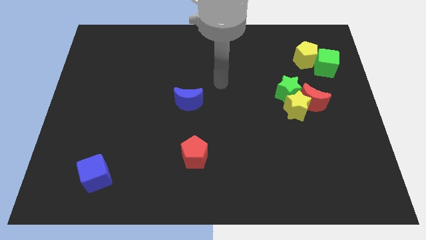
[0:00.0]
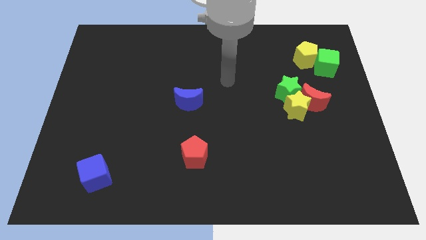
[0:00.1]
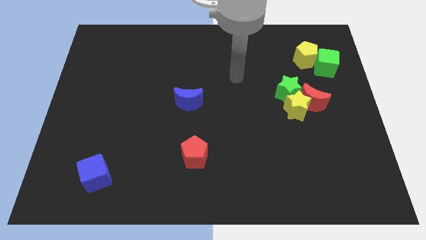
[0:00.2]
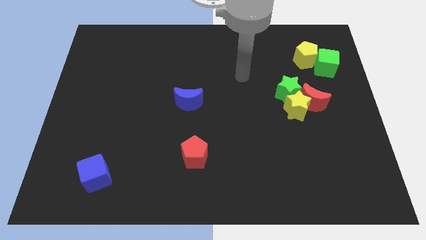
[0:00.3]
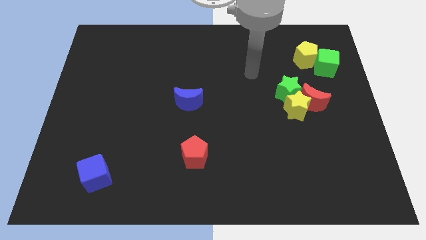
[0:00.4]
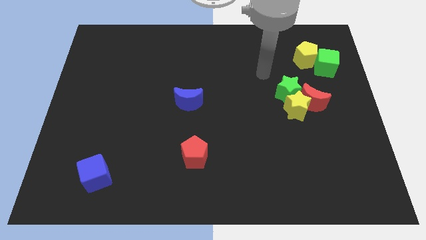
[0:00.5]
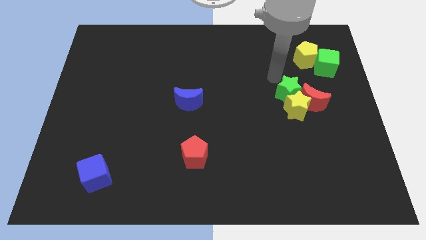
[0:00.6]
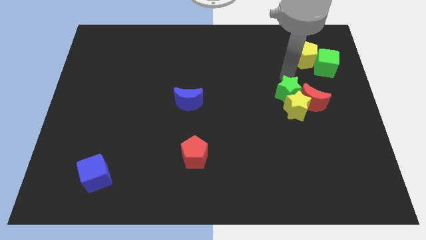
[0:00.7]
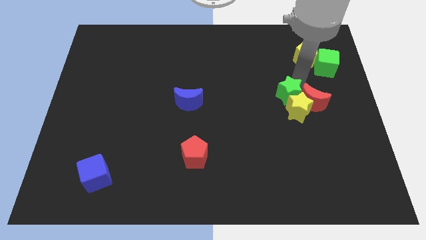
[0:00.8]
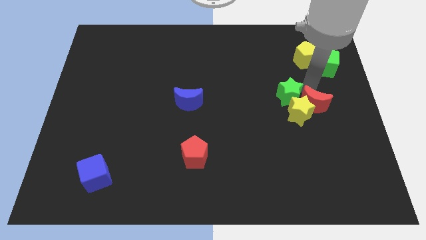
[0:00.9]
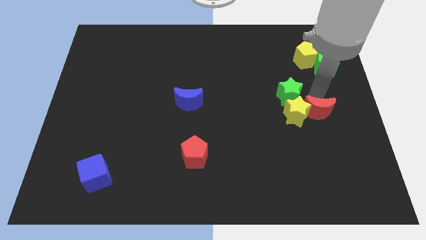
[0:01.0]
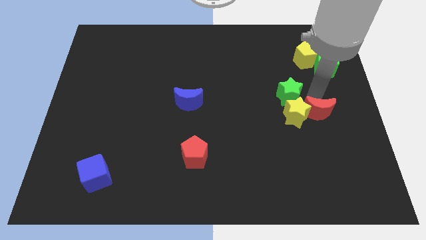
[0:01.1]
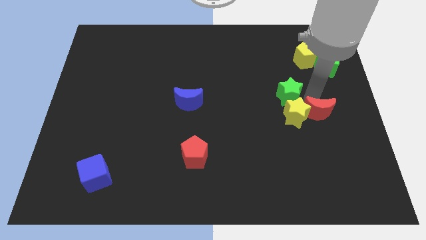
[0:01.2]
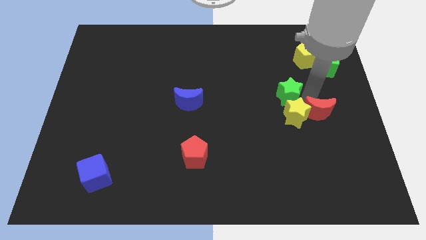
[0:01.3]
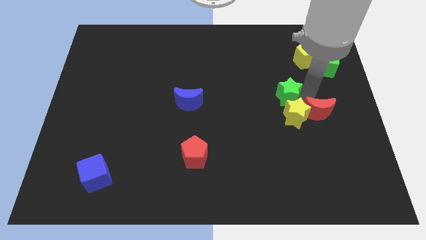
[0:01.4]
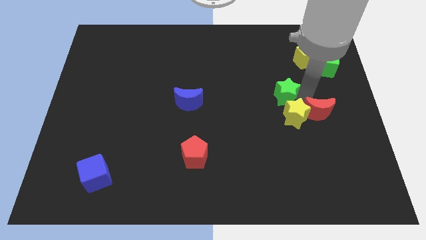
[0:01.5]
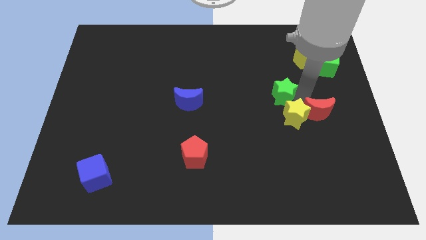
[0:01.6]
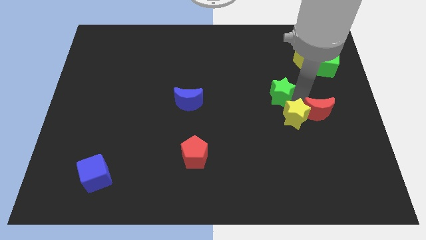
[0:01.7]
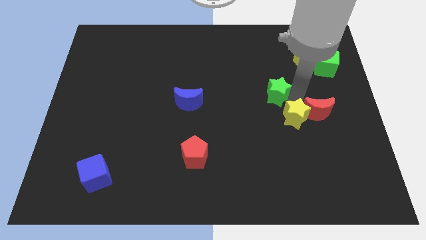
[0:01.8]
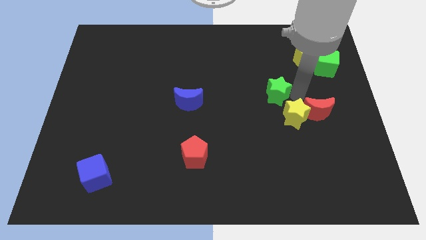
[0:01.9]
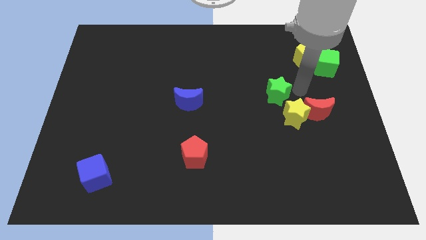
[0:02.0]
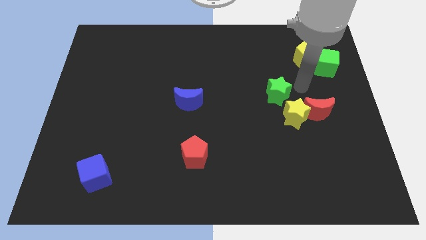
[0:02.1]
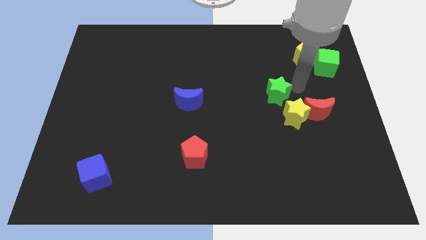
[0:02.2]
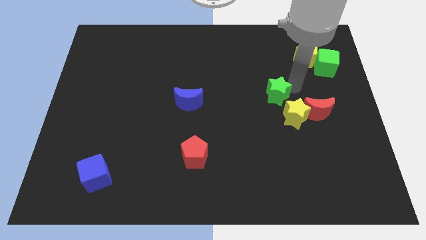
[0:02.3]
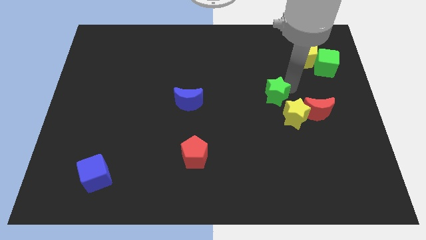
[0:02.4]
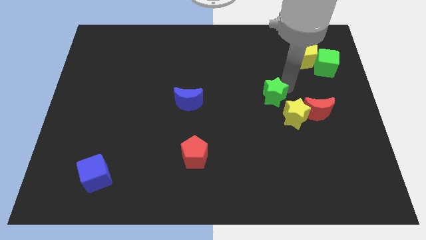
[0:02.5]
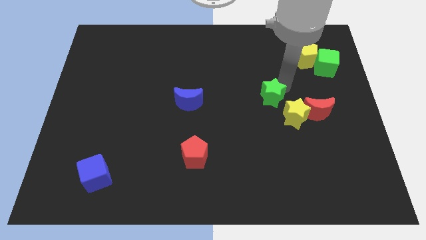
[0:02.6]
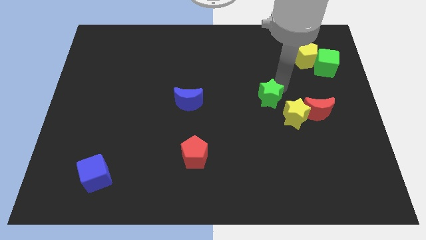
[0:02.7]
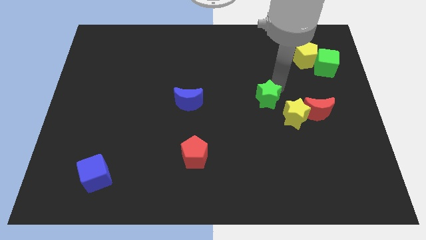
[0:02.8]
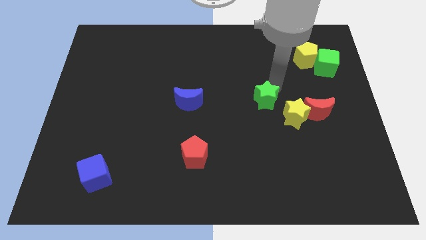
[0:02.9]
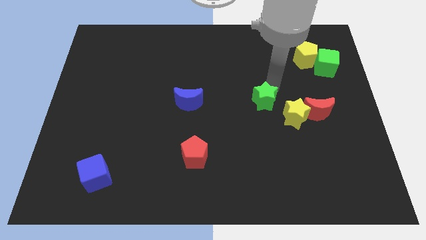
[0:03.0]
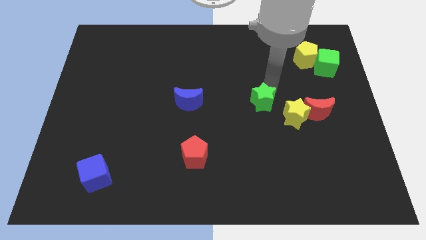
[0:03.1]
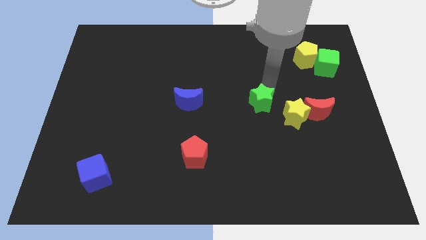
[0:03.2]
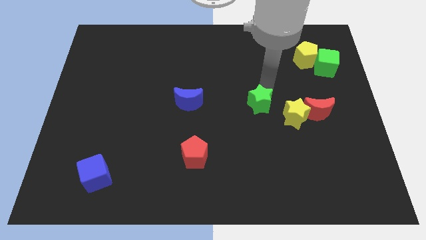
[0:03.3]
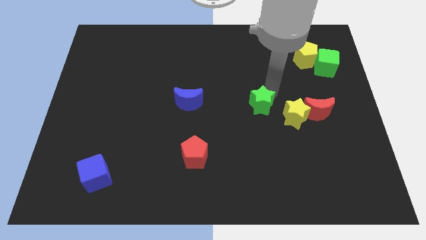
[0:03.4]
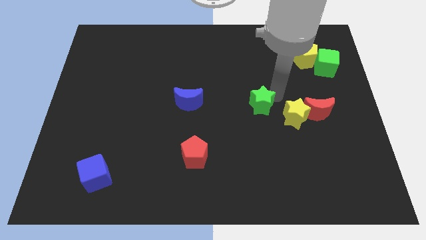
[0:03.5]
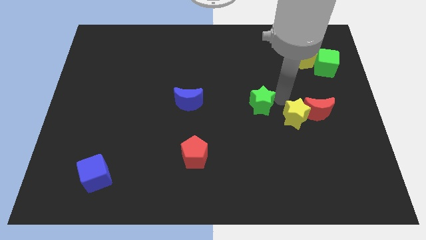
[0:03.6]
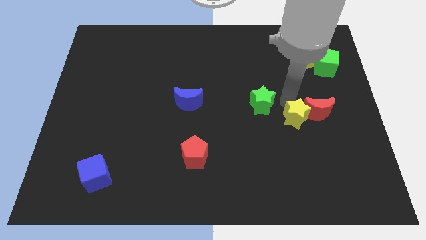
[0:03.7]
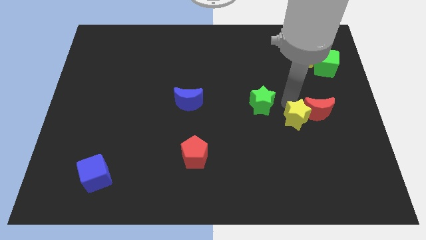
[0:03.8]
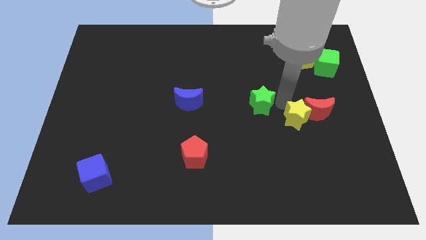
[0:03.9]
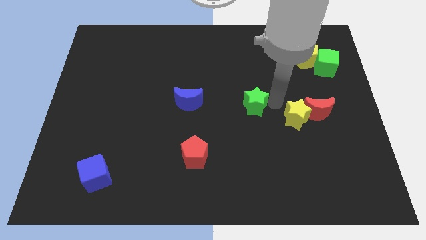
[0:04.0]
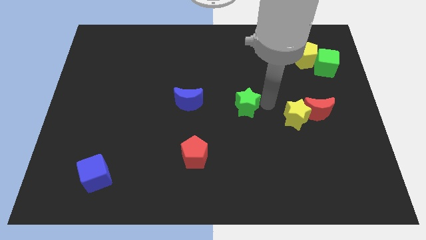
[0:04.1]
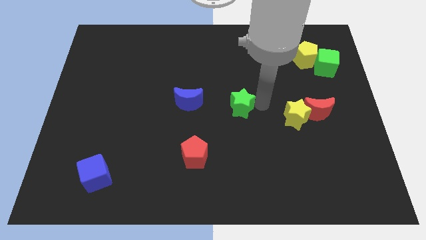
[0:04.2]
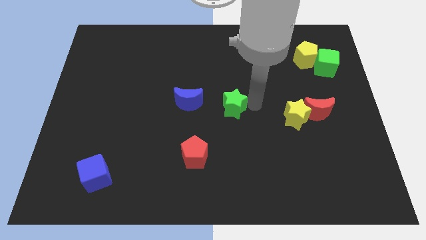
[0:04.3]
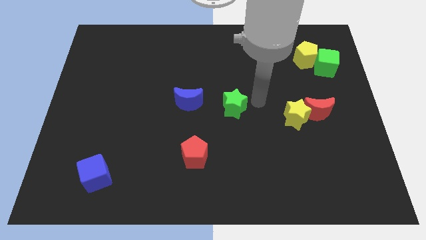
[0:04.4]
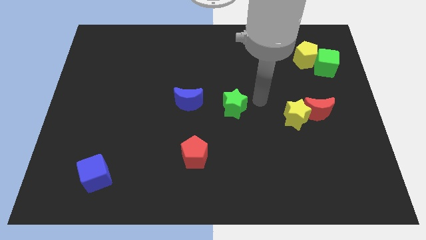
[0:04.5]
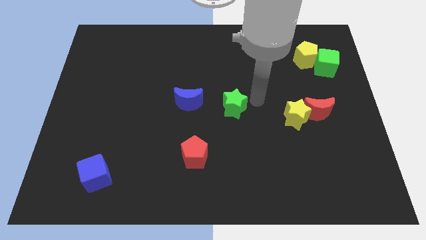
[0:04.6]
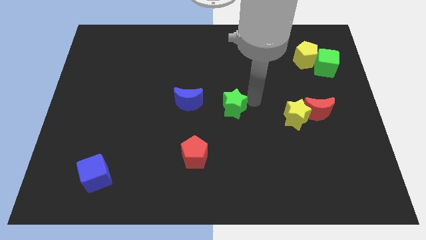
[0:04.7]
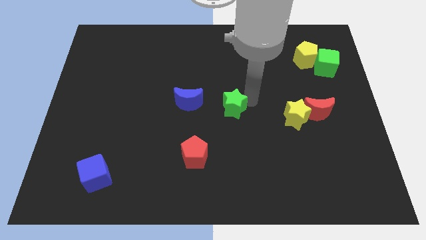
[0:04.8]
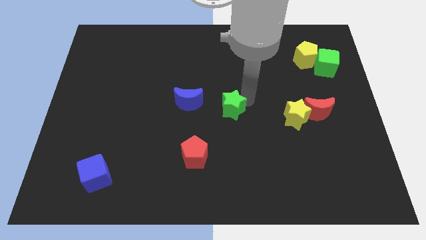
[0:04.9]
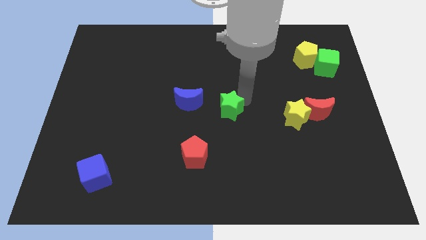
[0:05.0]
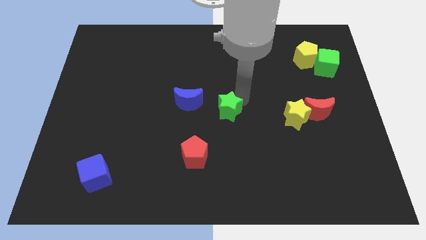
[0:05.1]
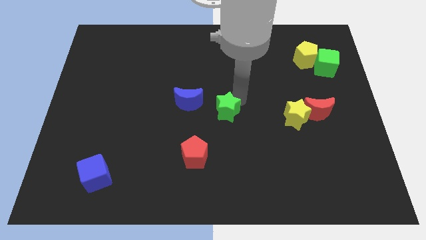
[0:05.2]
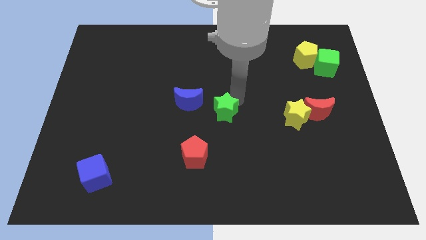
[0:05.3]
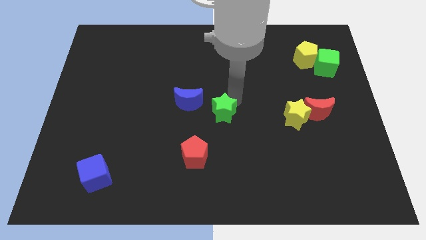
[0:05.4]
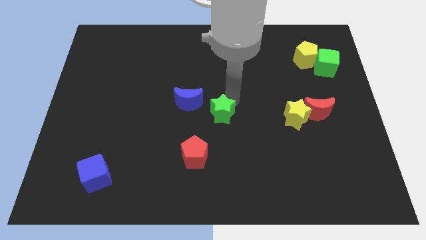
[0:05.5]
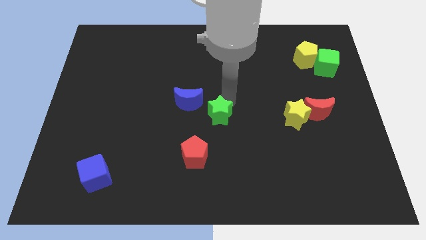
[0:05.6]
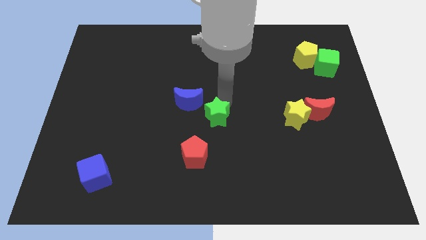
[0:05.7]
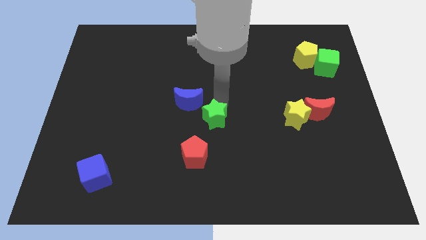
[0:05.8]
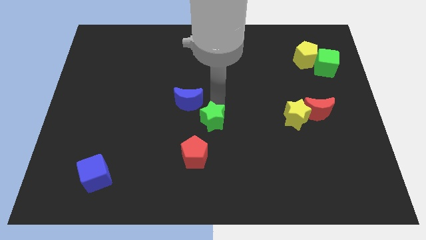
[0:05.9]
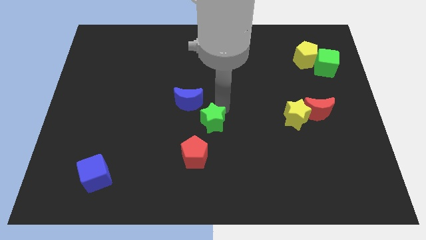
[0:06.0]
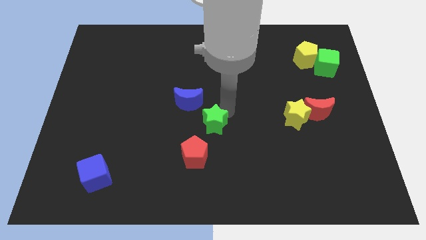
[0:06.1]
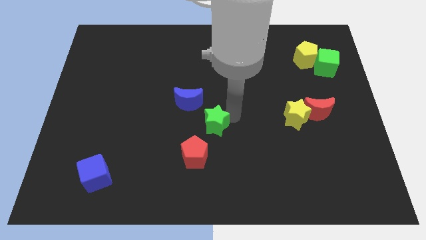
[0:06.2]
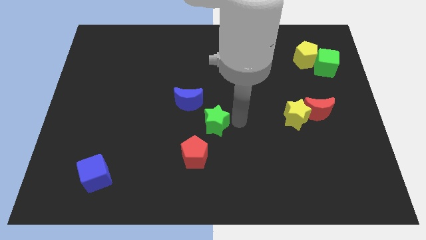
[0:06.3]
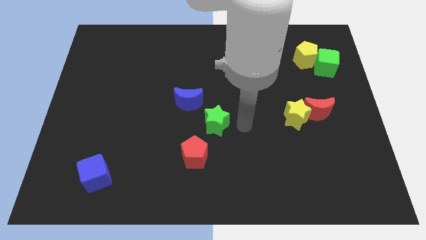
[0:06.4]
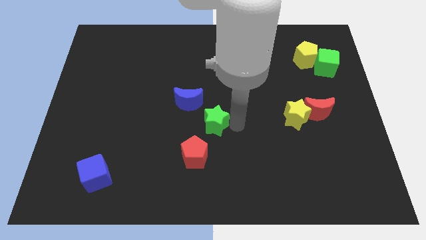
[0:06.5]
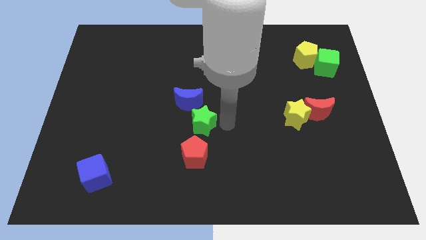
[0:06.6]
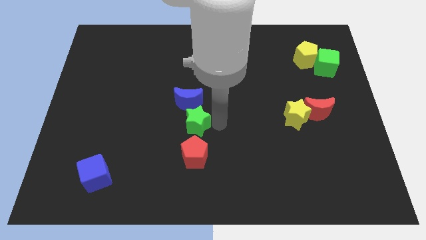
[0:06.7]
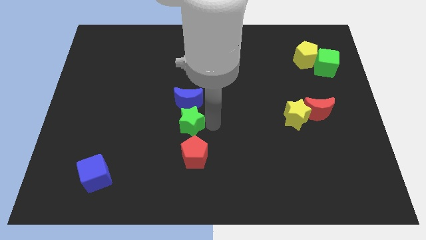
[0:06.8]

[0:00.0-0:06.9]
slide the green star to the bottom left side of the blue moon
